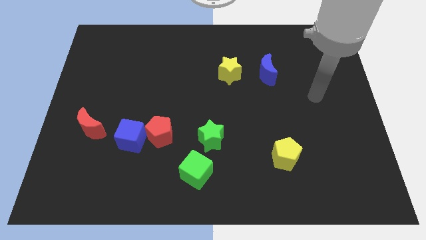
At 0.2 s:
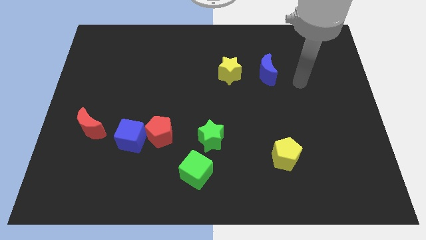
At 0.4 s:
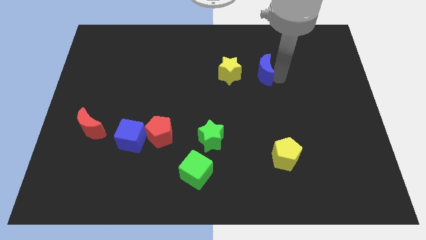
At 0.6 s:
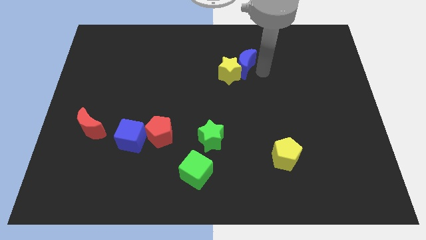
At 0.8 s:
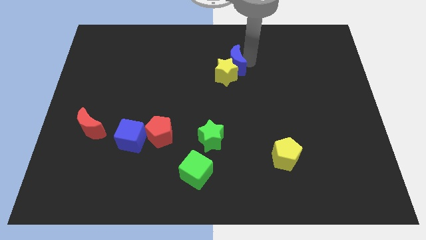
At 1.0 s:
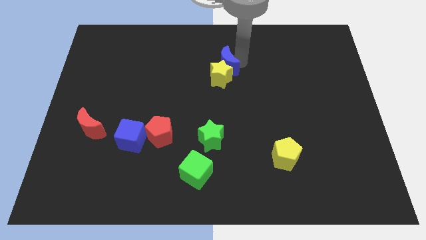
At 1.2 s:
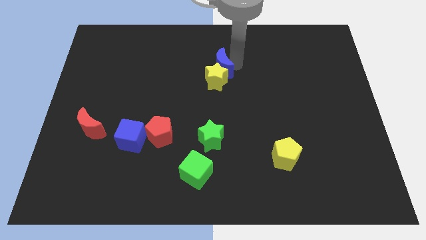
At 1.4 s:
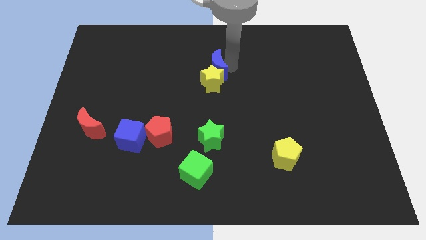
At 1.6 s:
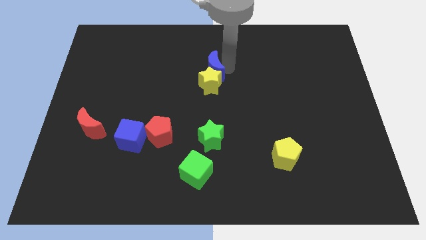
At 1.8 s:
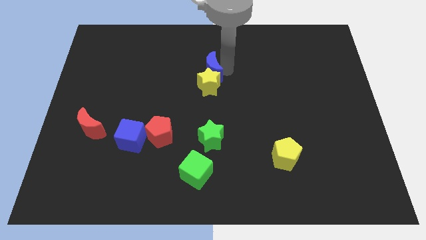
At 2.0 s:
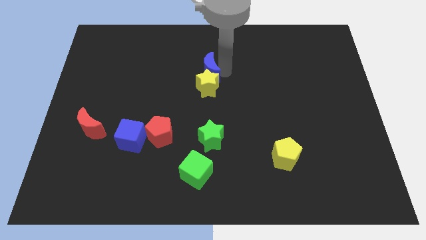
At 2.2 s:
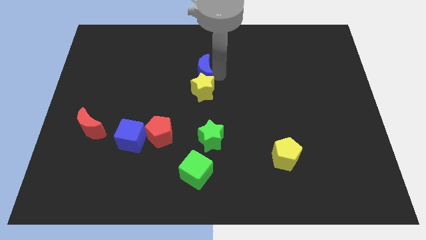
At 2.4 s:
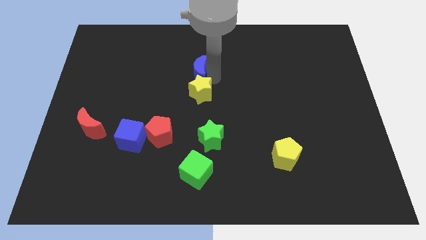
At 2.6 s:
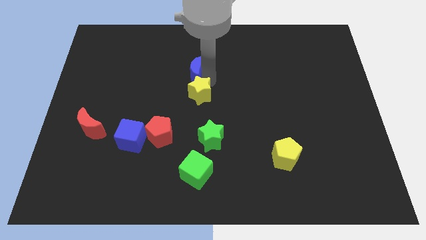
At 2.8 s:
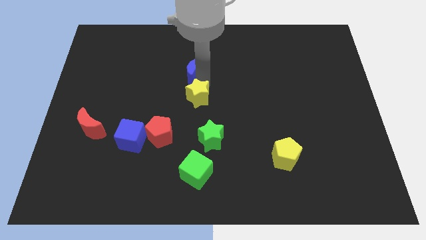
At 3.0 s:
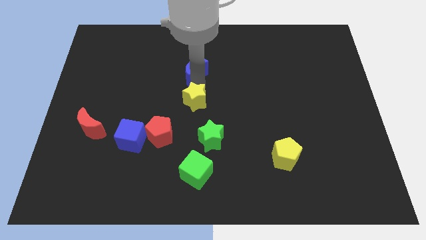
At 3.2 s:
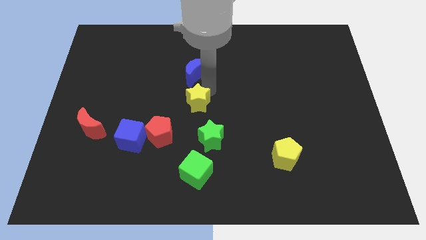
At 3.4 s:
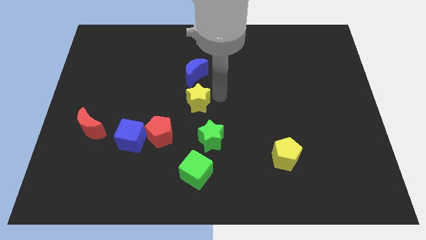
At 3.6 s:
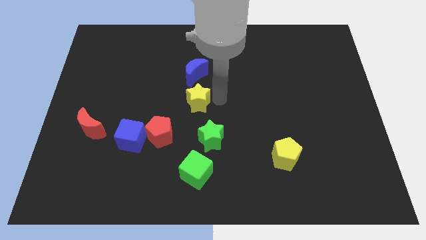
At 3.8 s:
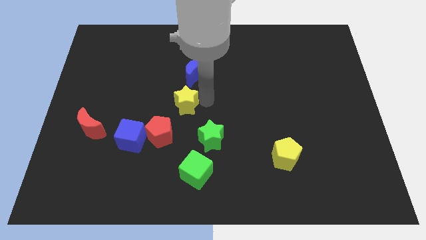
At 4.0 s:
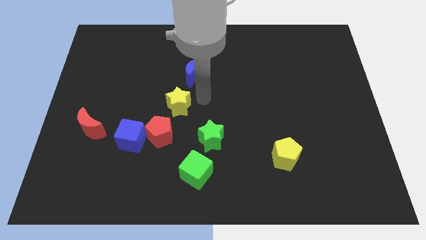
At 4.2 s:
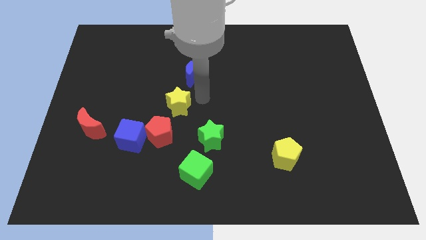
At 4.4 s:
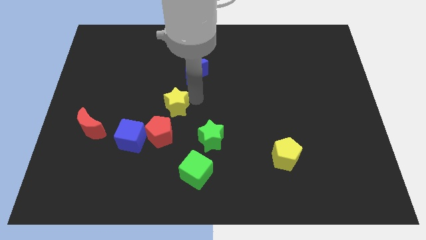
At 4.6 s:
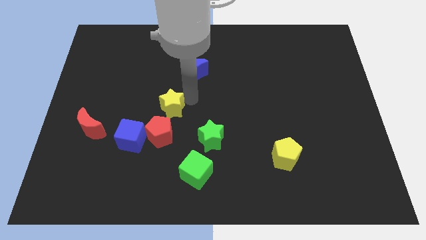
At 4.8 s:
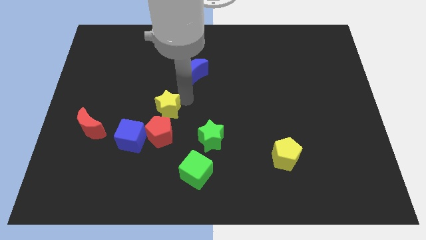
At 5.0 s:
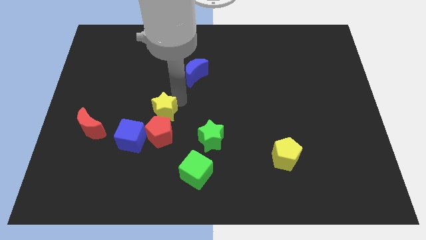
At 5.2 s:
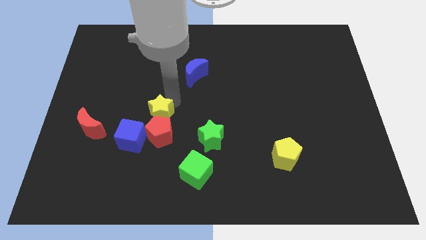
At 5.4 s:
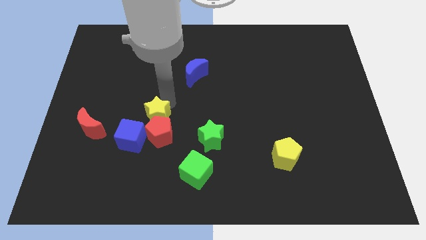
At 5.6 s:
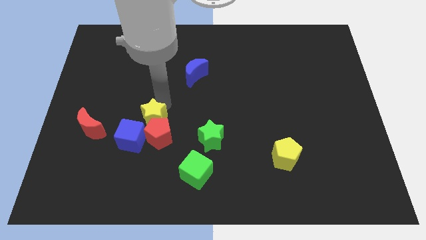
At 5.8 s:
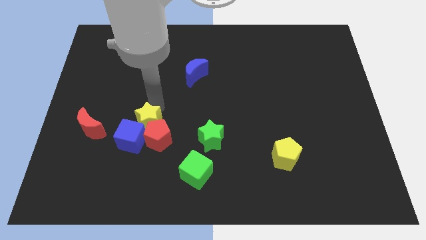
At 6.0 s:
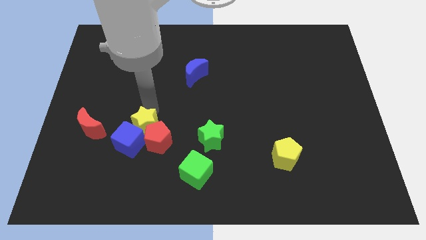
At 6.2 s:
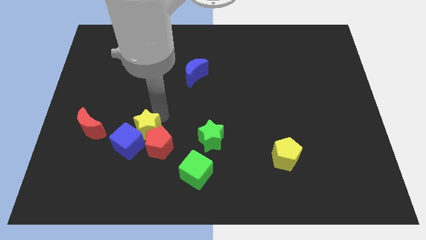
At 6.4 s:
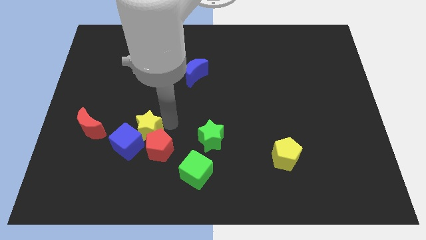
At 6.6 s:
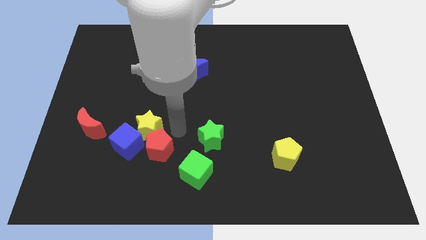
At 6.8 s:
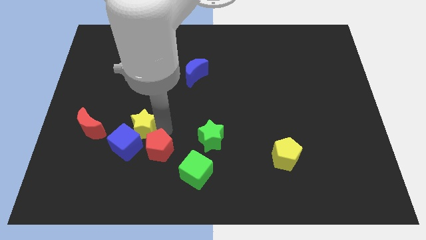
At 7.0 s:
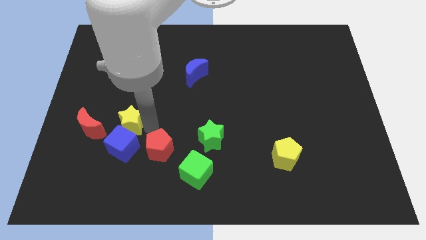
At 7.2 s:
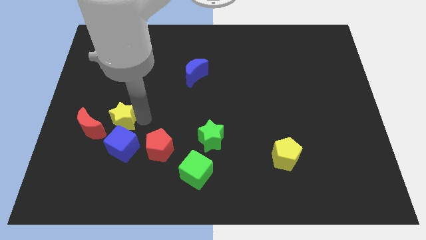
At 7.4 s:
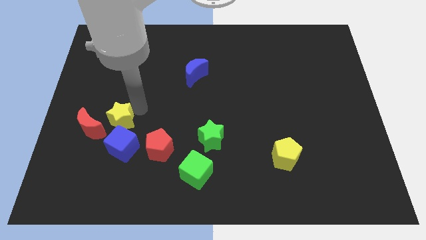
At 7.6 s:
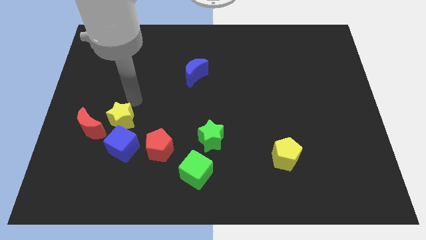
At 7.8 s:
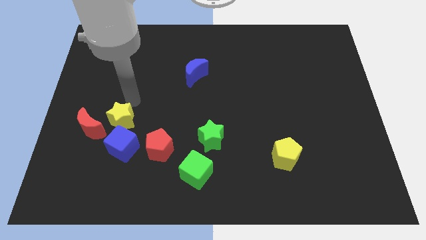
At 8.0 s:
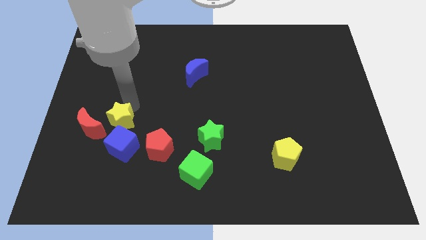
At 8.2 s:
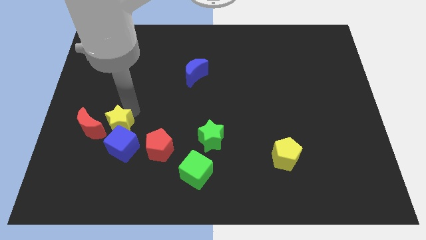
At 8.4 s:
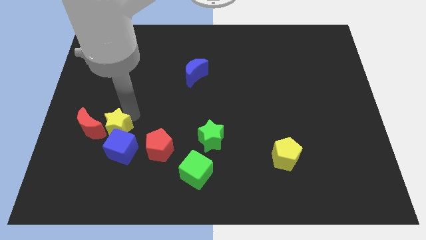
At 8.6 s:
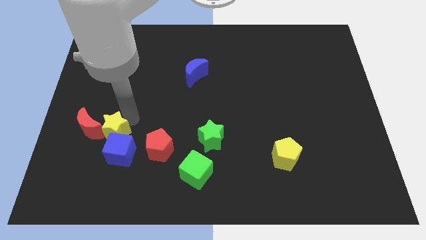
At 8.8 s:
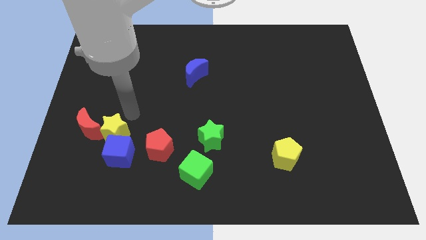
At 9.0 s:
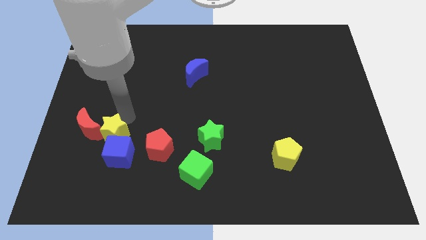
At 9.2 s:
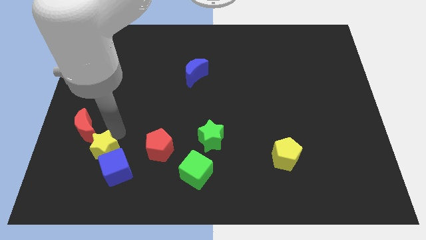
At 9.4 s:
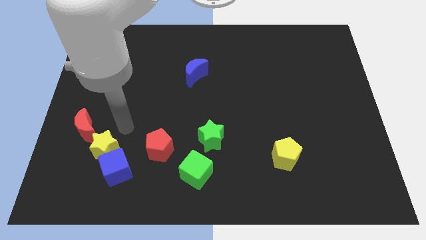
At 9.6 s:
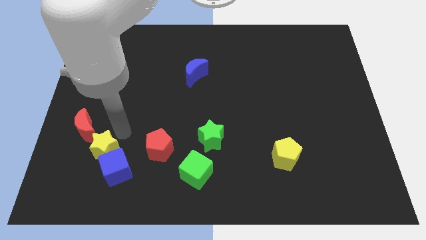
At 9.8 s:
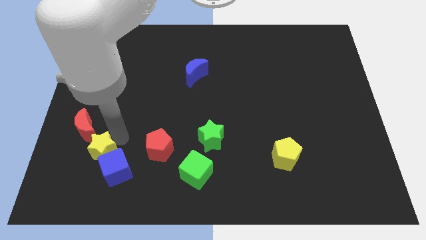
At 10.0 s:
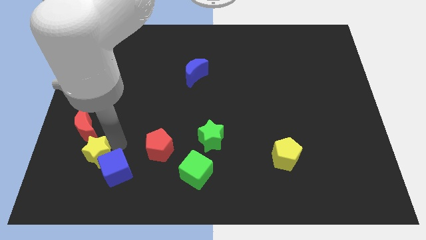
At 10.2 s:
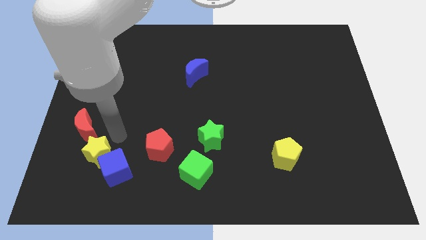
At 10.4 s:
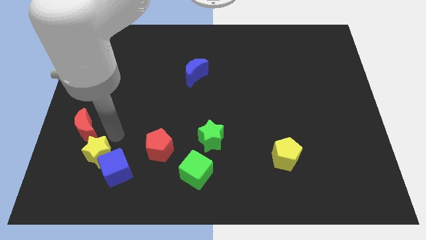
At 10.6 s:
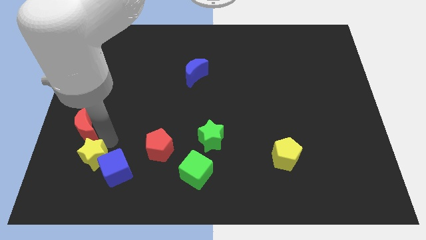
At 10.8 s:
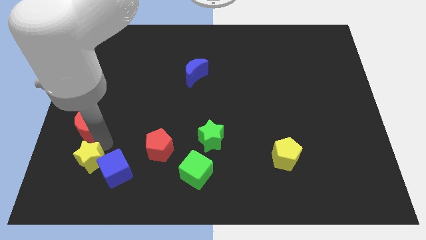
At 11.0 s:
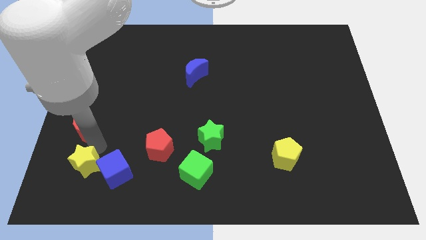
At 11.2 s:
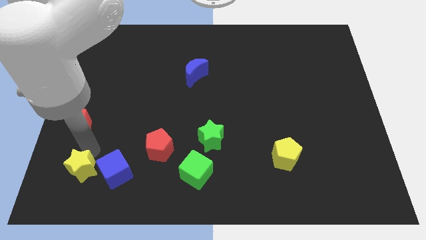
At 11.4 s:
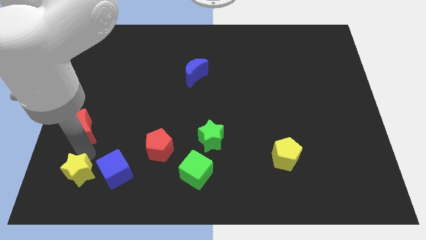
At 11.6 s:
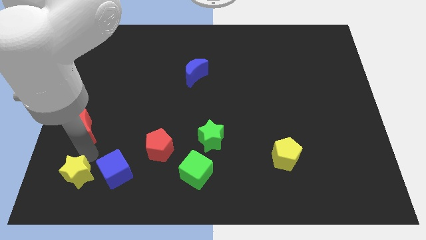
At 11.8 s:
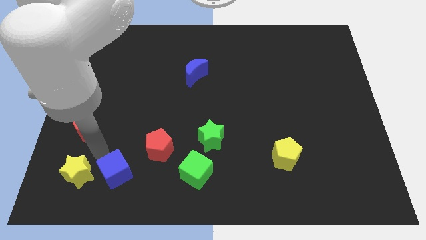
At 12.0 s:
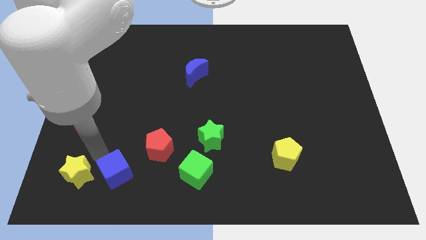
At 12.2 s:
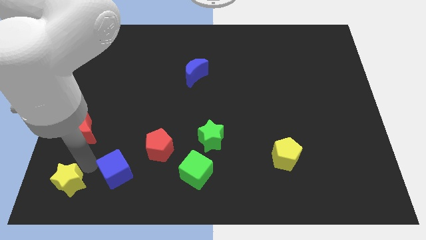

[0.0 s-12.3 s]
put the yellow star to the bottom left corner
